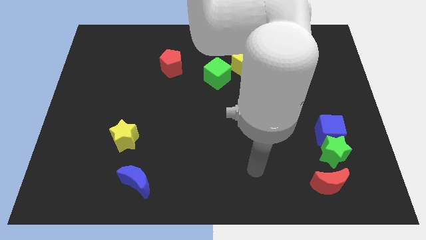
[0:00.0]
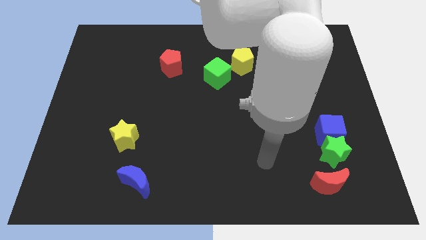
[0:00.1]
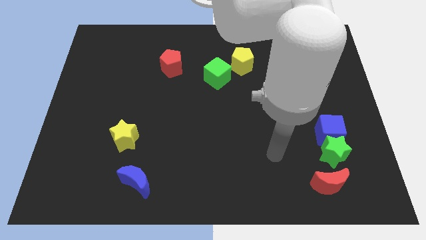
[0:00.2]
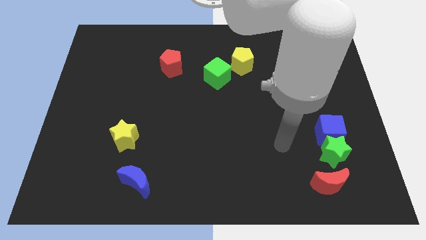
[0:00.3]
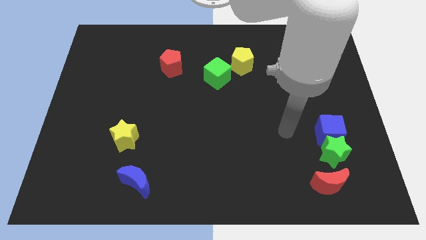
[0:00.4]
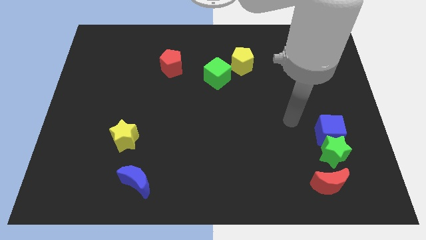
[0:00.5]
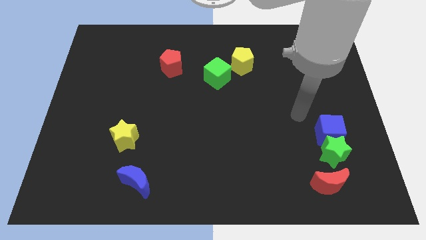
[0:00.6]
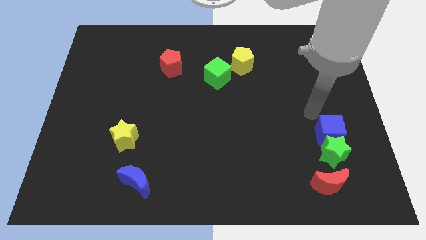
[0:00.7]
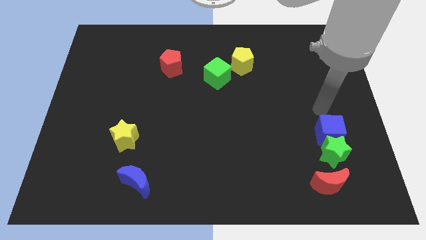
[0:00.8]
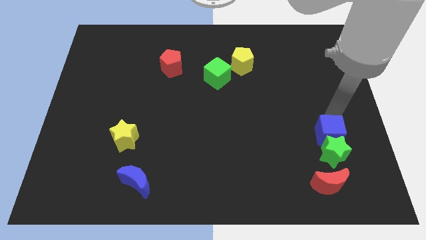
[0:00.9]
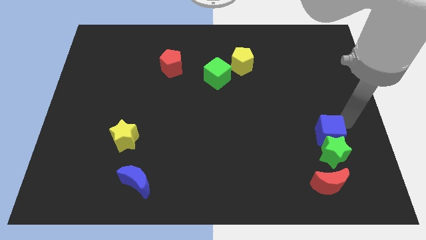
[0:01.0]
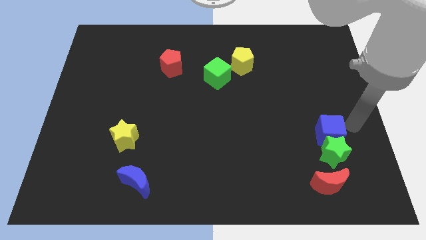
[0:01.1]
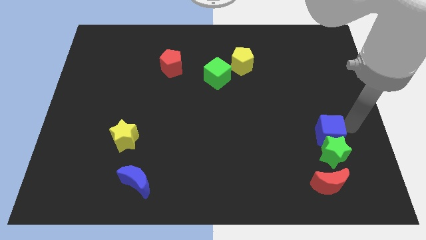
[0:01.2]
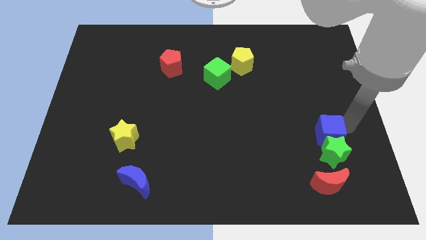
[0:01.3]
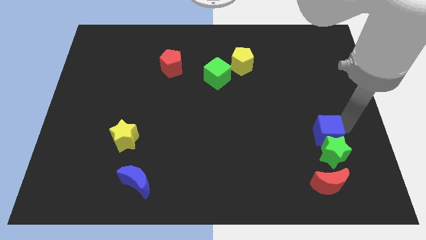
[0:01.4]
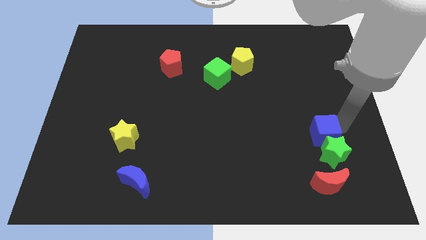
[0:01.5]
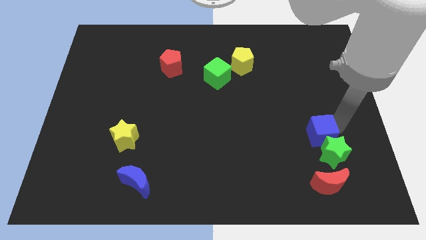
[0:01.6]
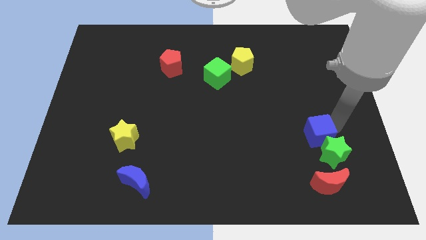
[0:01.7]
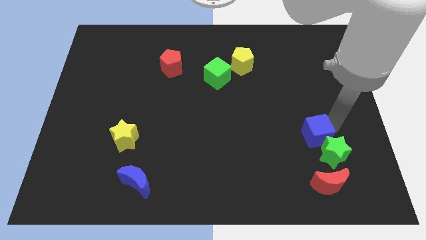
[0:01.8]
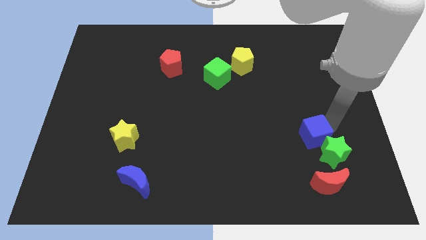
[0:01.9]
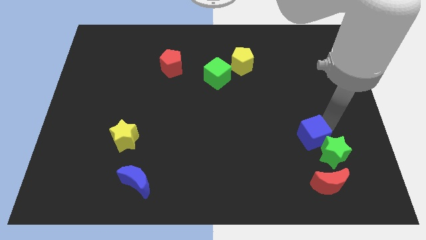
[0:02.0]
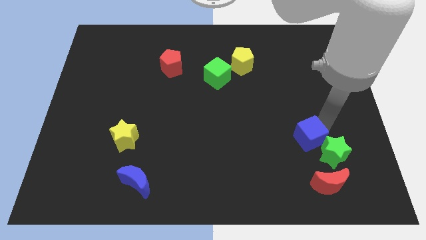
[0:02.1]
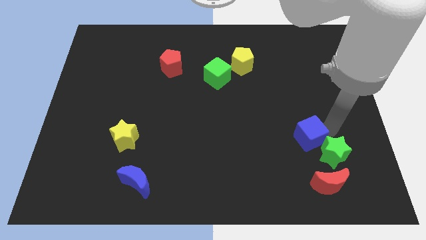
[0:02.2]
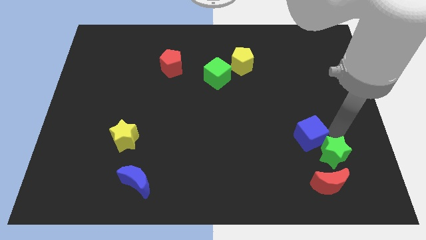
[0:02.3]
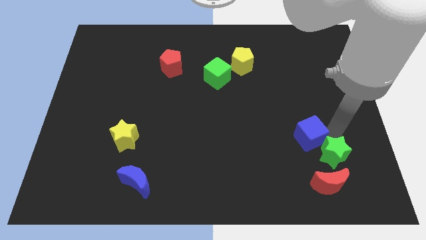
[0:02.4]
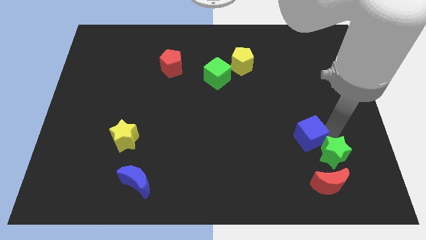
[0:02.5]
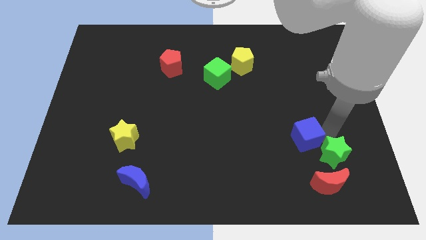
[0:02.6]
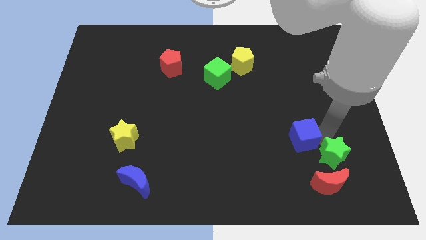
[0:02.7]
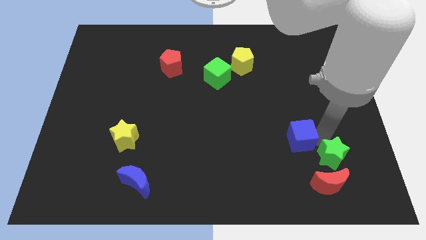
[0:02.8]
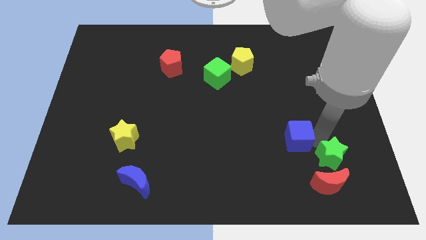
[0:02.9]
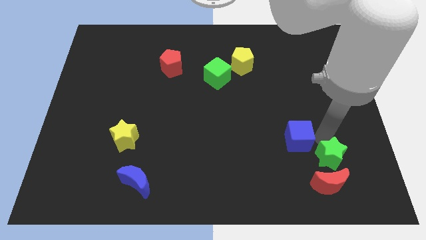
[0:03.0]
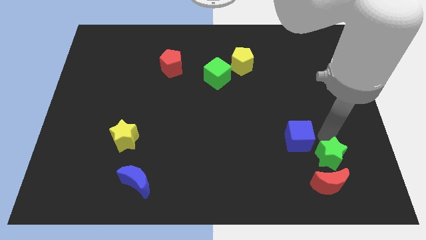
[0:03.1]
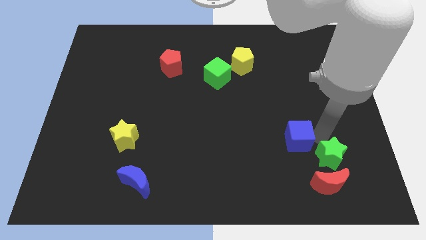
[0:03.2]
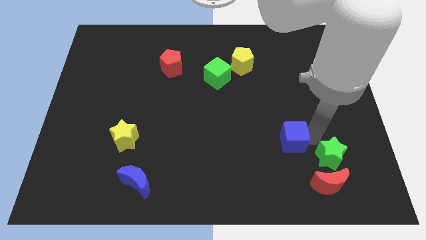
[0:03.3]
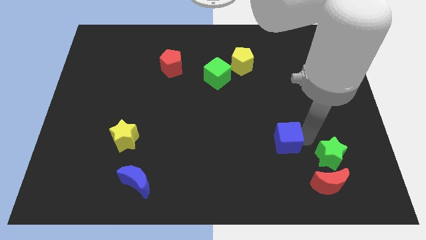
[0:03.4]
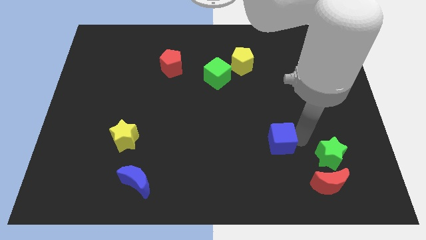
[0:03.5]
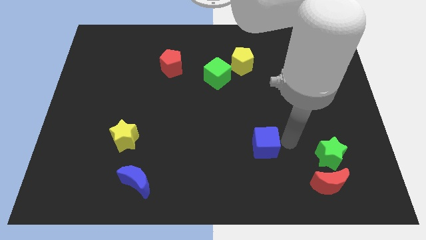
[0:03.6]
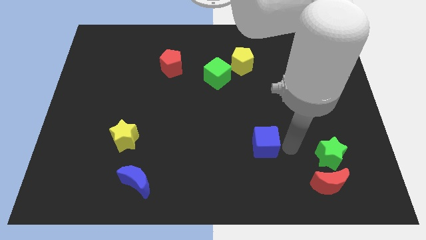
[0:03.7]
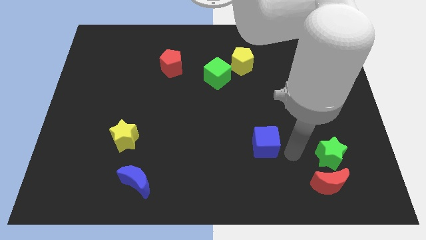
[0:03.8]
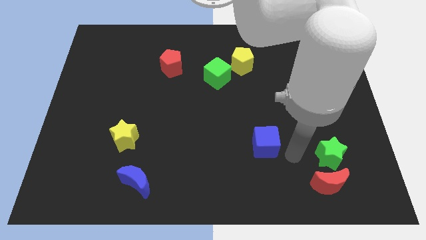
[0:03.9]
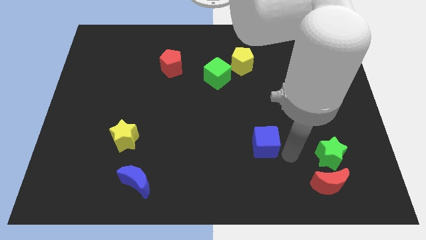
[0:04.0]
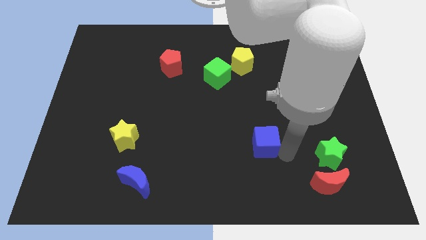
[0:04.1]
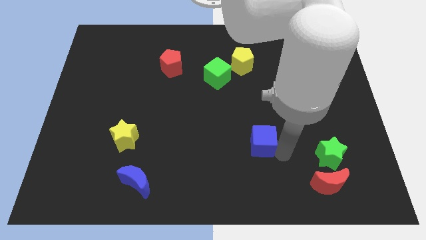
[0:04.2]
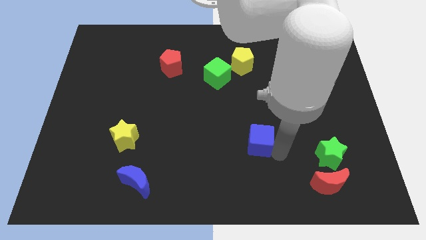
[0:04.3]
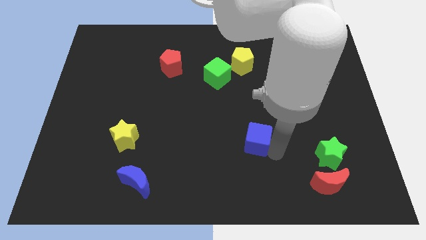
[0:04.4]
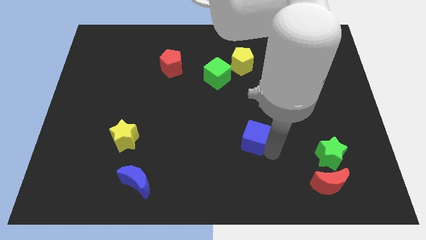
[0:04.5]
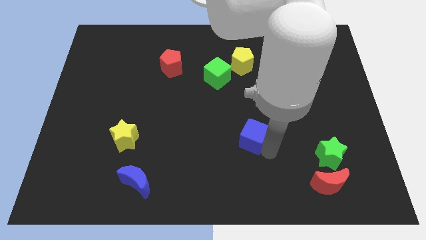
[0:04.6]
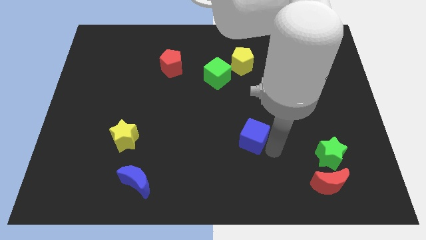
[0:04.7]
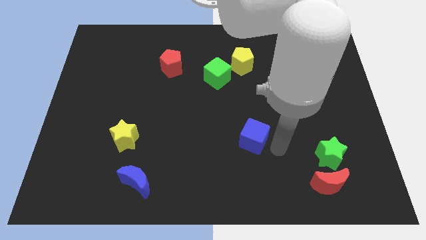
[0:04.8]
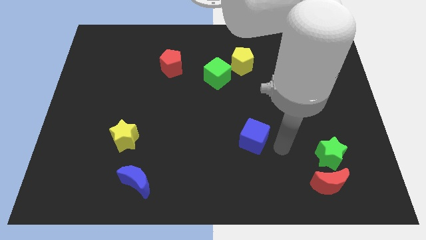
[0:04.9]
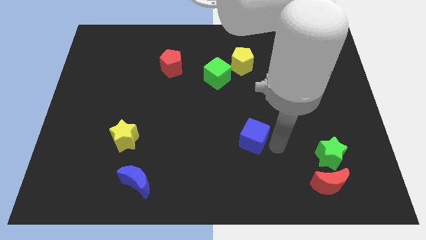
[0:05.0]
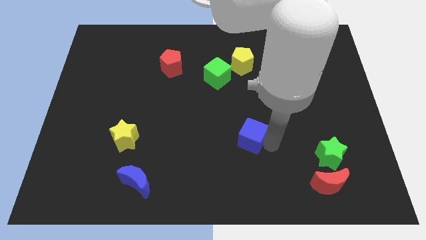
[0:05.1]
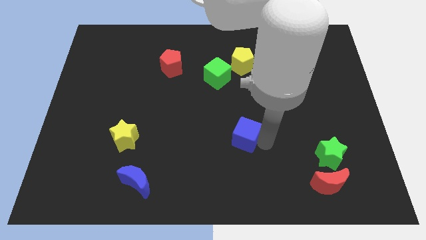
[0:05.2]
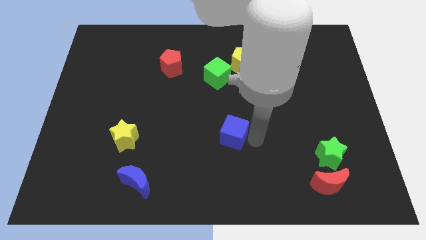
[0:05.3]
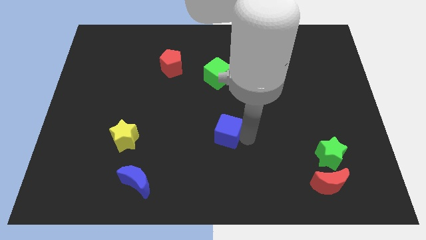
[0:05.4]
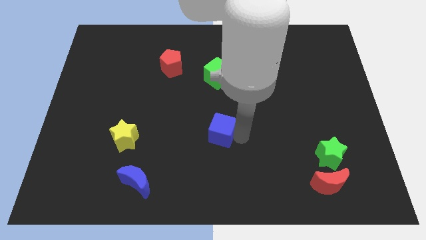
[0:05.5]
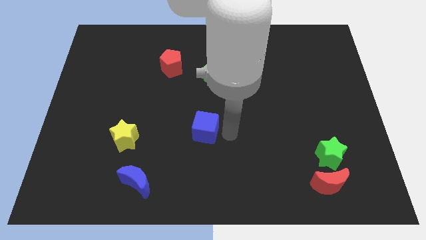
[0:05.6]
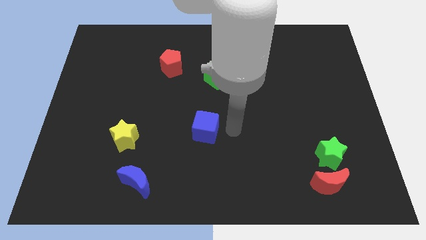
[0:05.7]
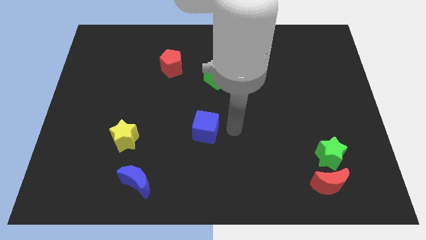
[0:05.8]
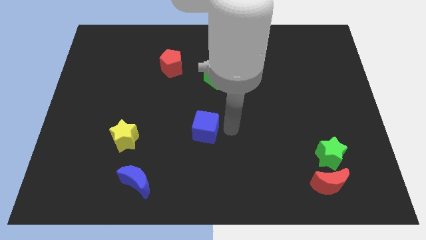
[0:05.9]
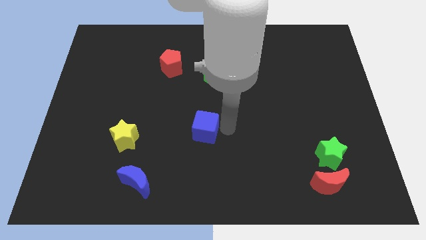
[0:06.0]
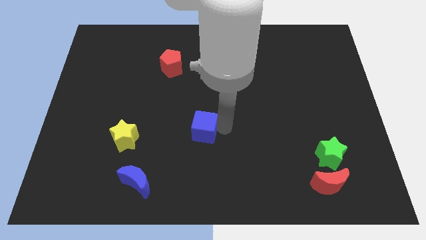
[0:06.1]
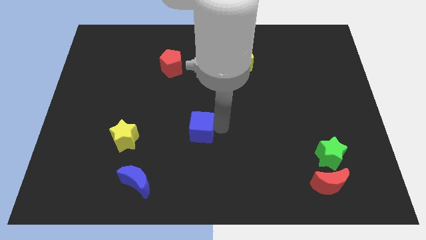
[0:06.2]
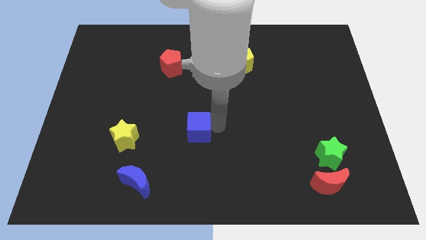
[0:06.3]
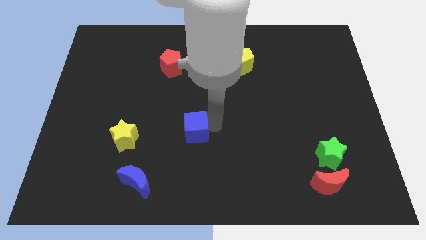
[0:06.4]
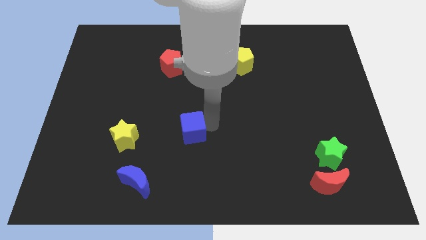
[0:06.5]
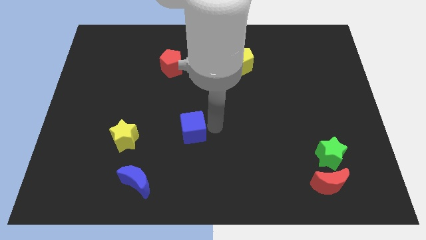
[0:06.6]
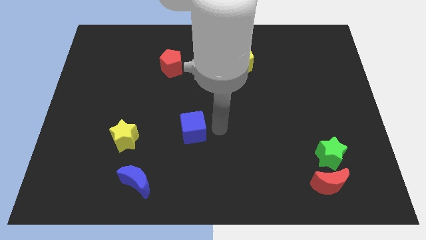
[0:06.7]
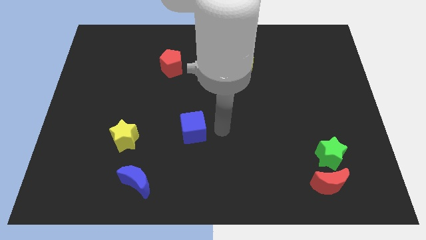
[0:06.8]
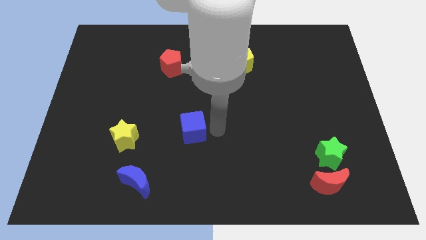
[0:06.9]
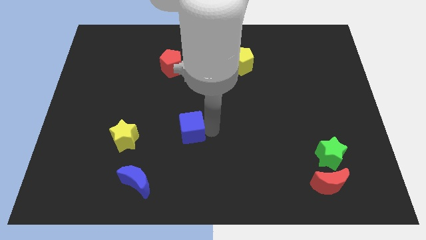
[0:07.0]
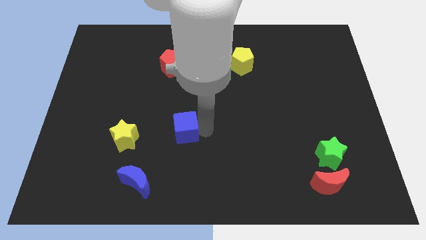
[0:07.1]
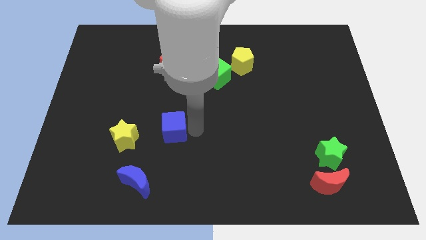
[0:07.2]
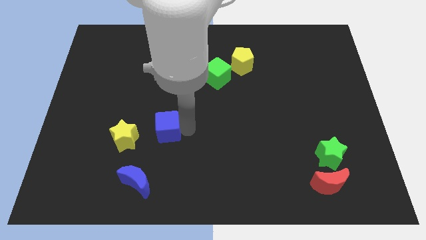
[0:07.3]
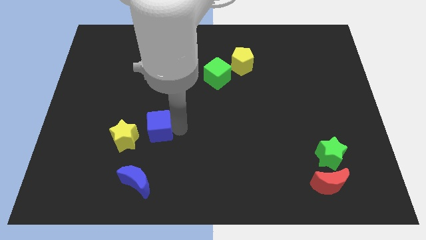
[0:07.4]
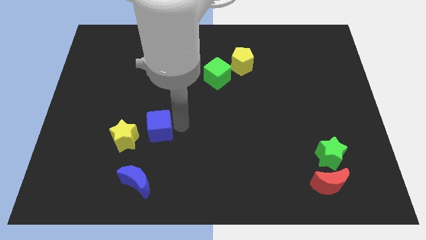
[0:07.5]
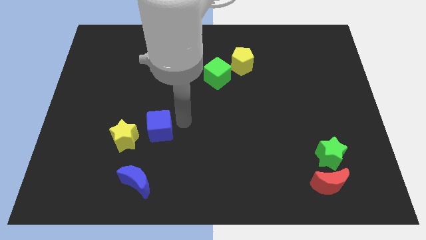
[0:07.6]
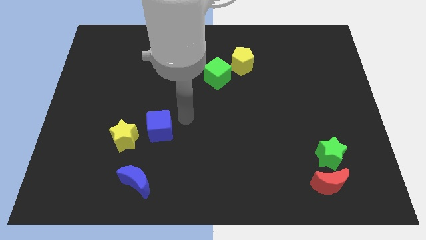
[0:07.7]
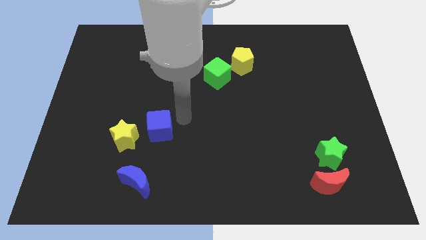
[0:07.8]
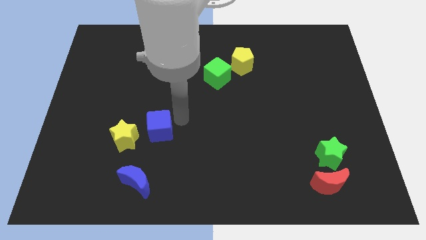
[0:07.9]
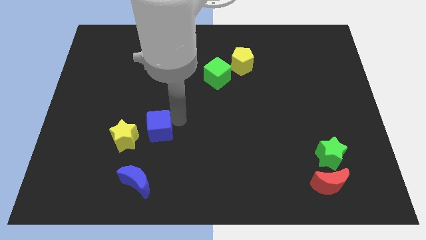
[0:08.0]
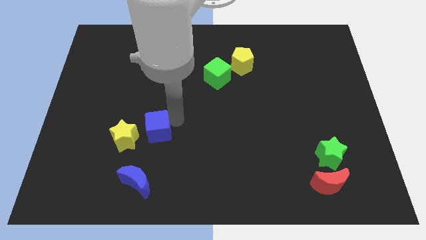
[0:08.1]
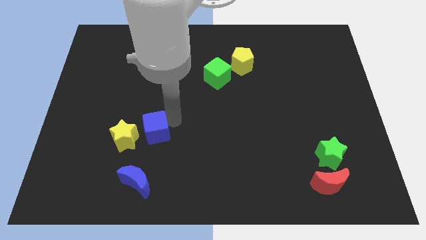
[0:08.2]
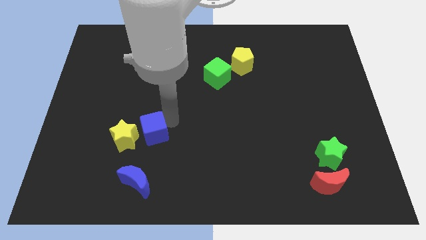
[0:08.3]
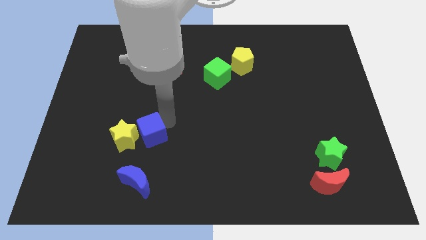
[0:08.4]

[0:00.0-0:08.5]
slide the blue cube towards the yellow star
